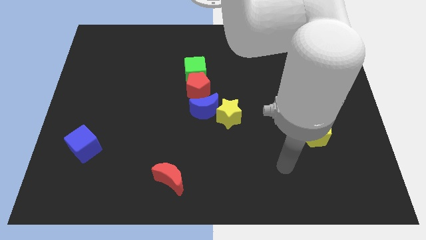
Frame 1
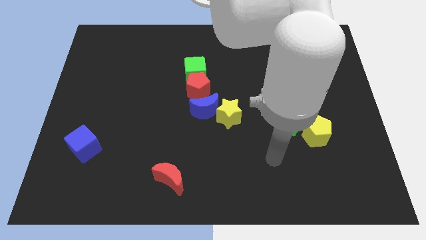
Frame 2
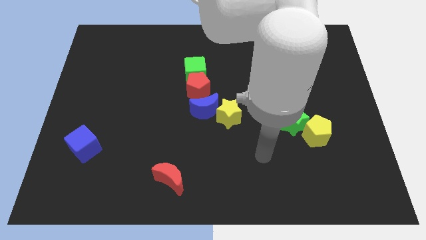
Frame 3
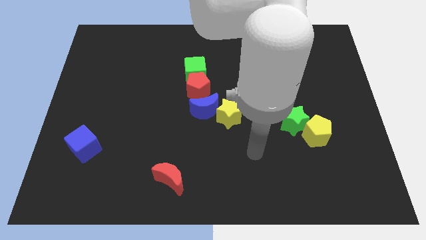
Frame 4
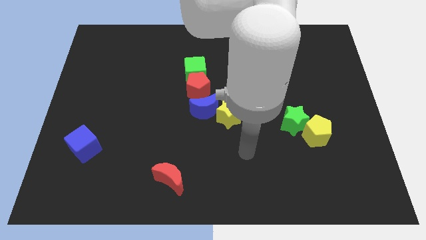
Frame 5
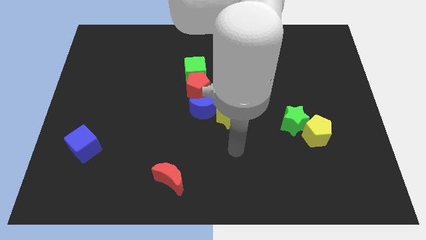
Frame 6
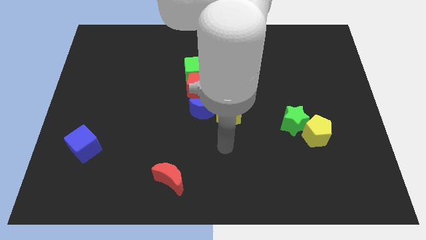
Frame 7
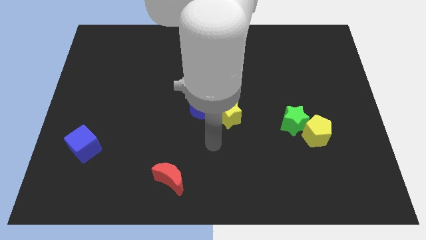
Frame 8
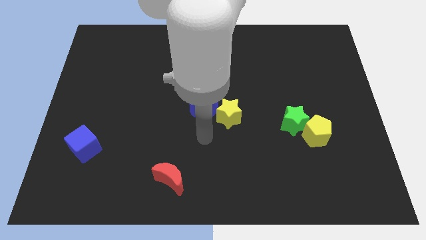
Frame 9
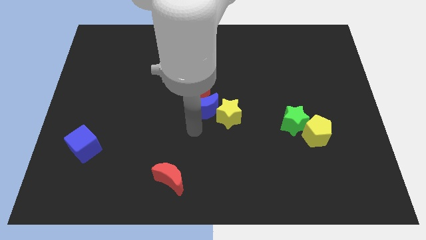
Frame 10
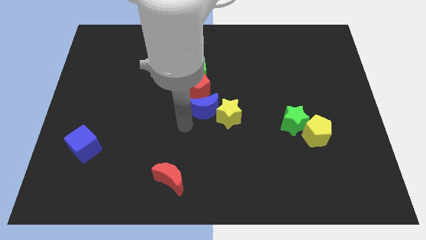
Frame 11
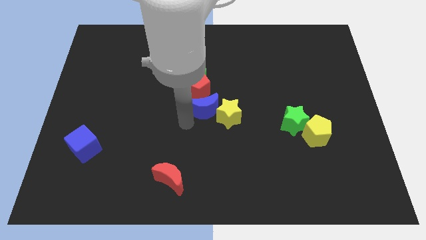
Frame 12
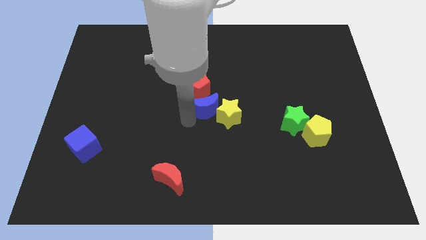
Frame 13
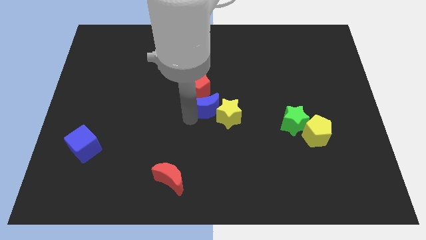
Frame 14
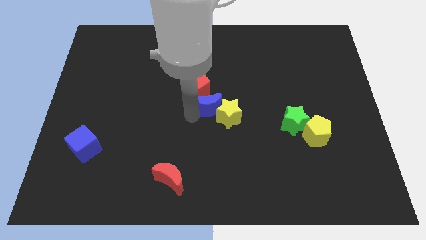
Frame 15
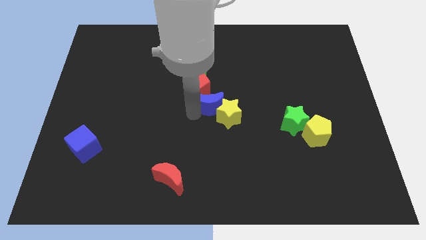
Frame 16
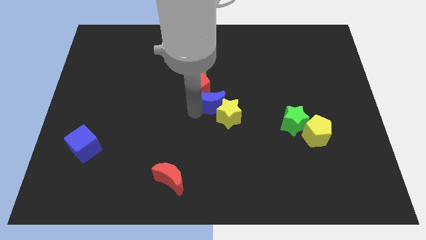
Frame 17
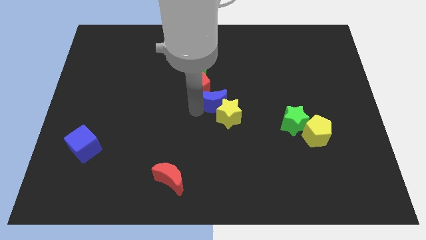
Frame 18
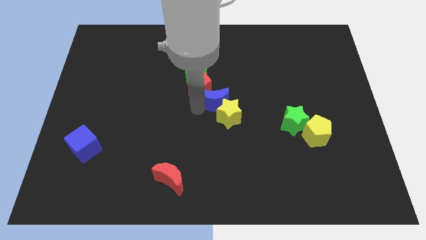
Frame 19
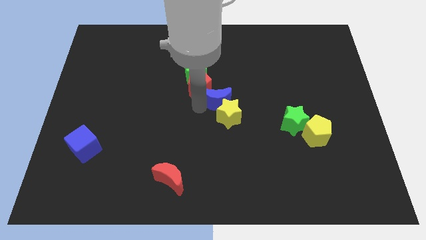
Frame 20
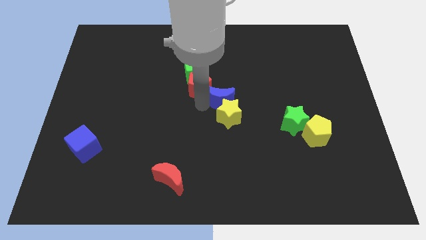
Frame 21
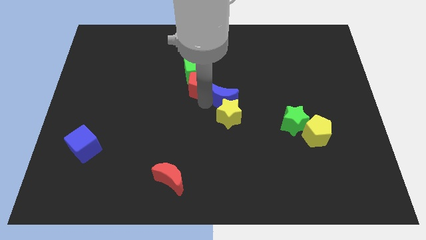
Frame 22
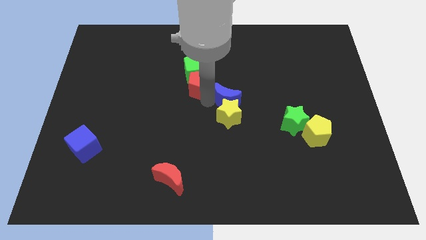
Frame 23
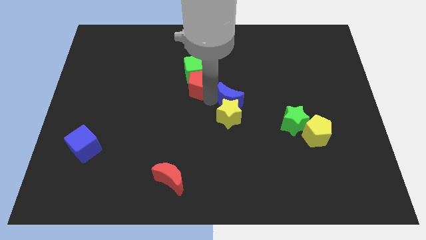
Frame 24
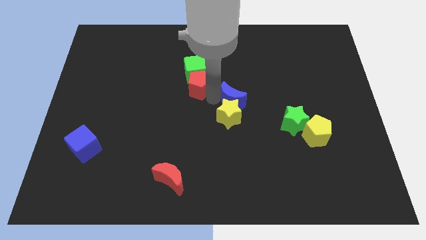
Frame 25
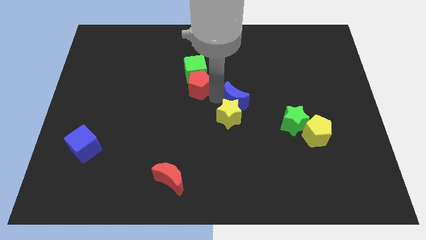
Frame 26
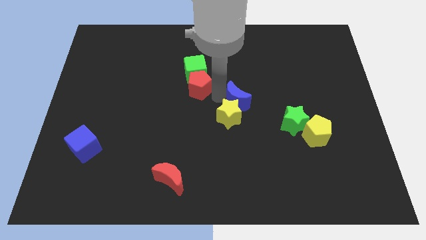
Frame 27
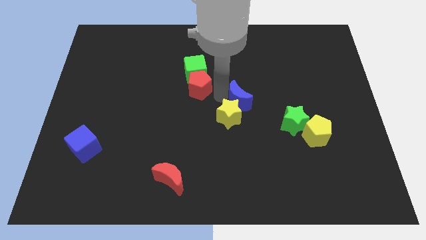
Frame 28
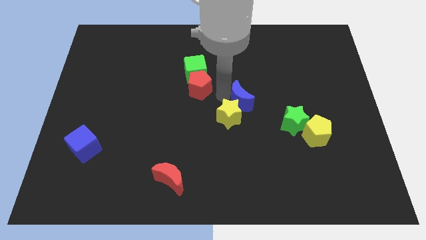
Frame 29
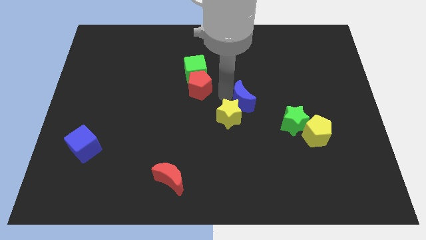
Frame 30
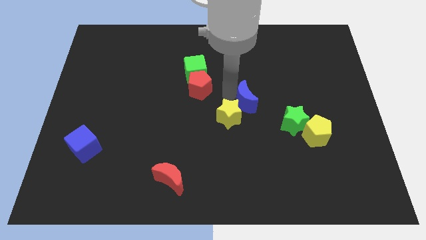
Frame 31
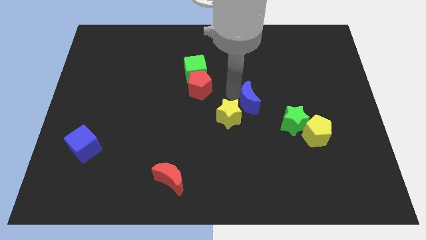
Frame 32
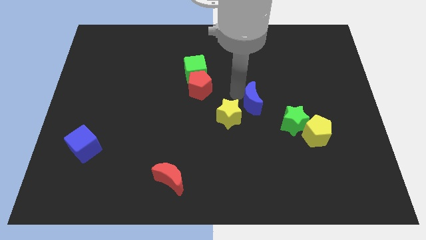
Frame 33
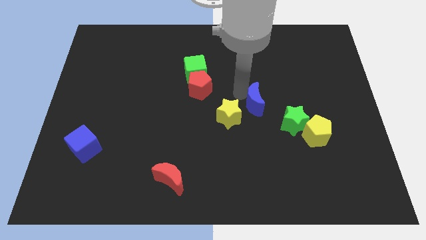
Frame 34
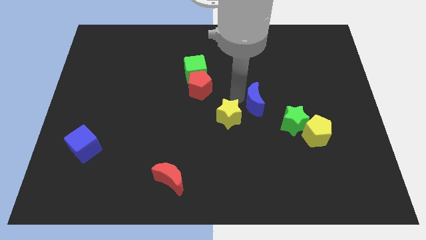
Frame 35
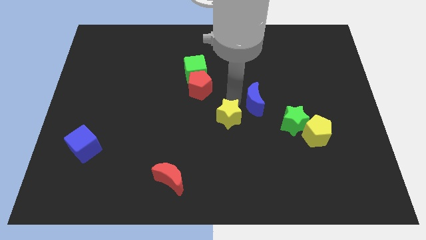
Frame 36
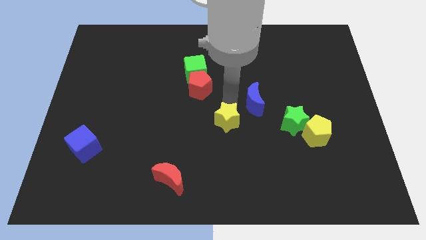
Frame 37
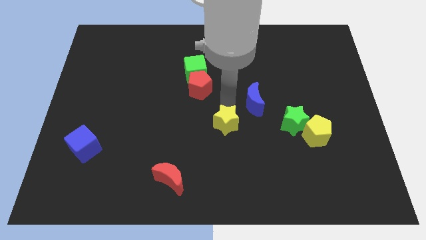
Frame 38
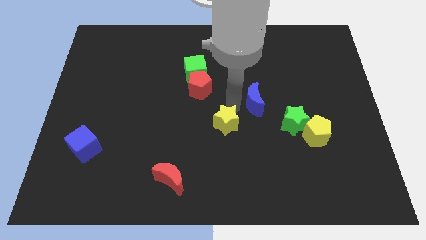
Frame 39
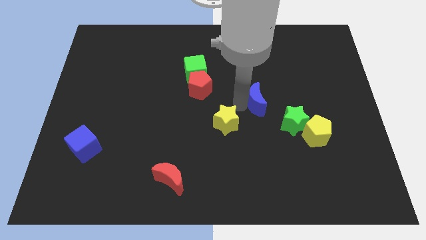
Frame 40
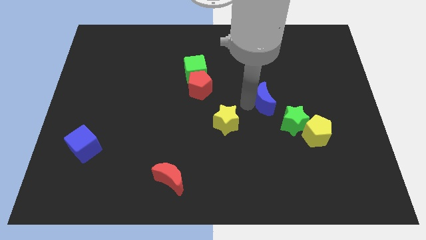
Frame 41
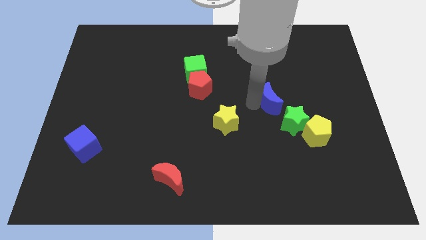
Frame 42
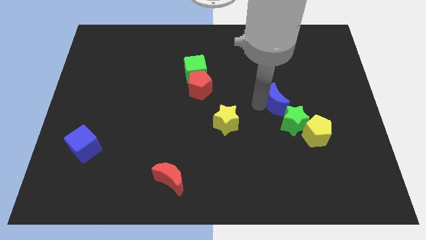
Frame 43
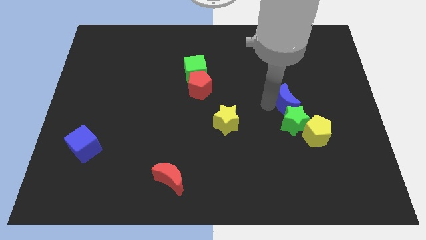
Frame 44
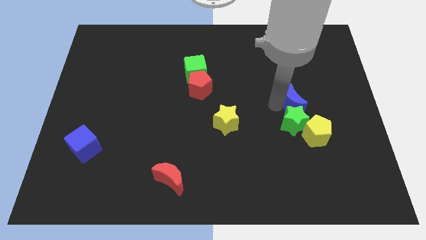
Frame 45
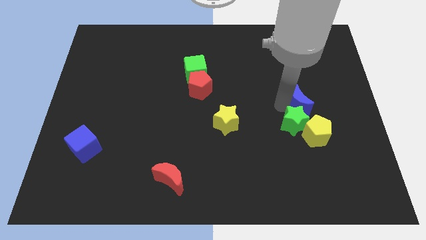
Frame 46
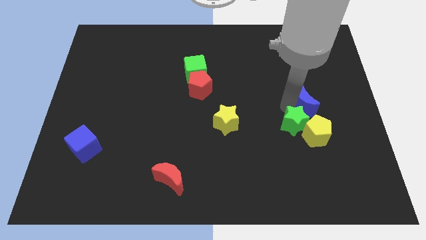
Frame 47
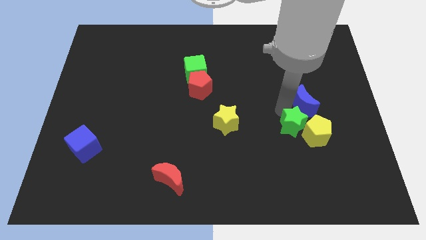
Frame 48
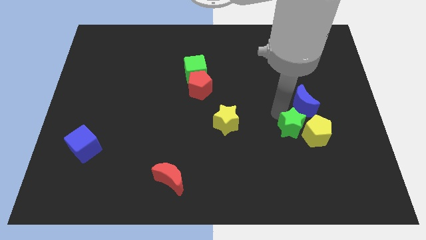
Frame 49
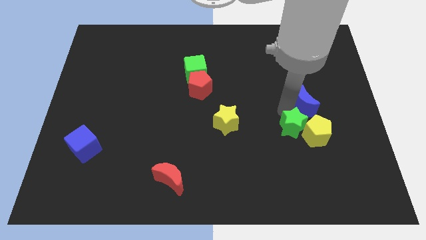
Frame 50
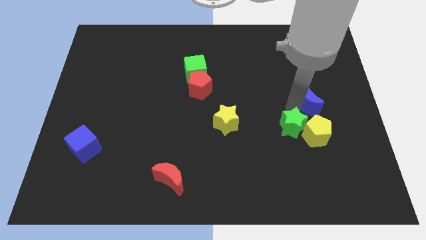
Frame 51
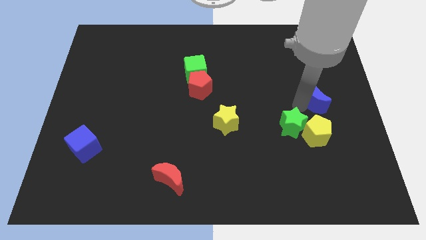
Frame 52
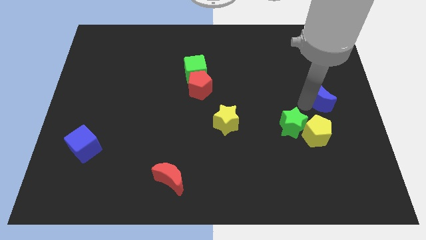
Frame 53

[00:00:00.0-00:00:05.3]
put the blue moon to the right side of the board

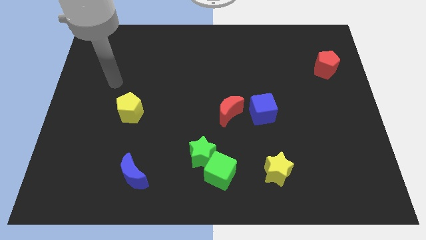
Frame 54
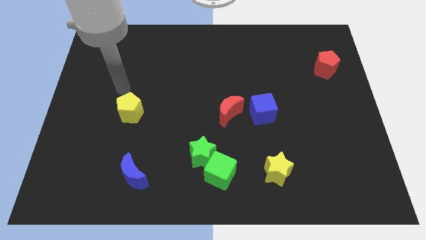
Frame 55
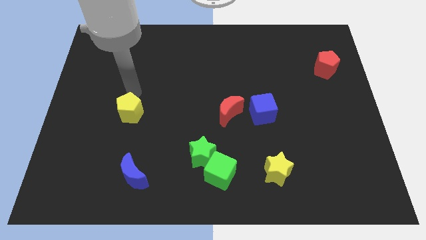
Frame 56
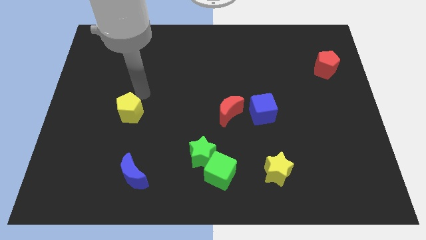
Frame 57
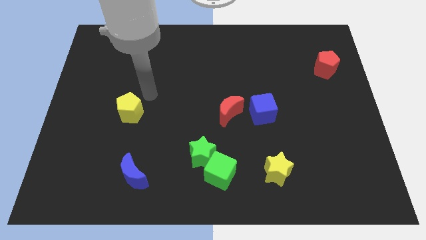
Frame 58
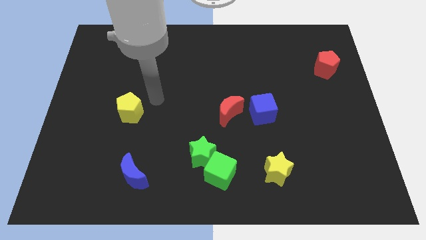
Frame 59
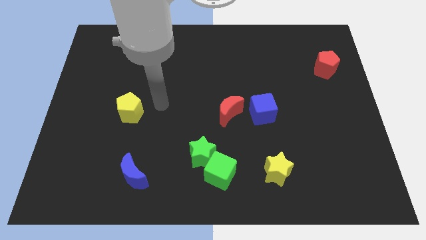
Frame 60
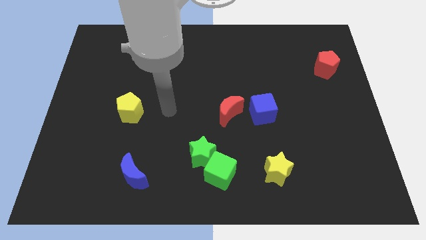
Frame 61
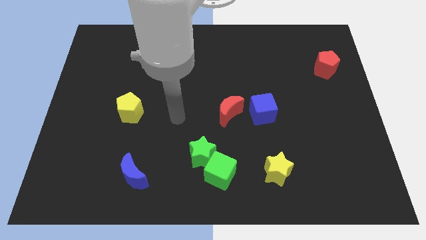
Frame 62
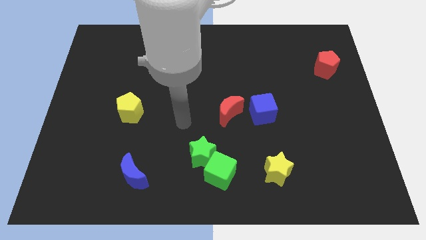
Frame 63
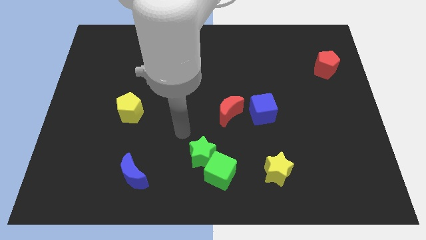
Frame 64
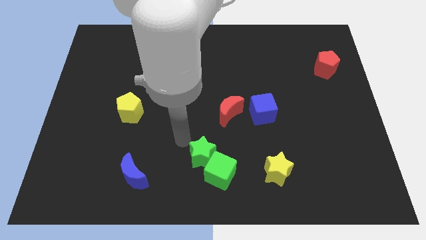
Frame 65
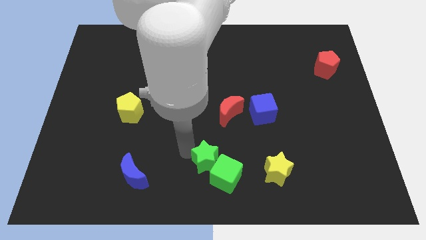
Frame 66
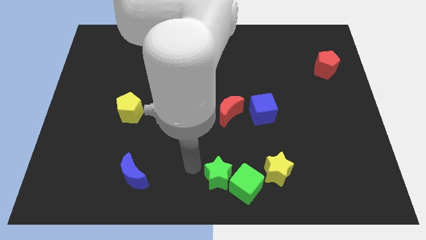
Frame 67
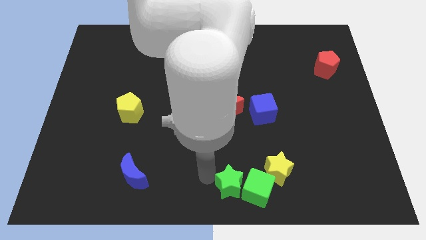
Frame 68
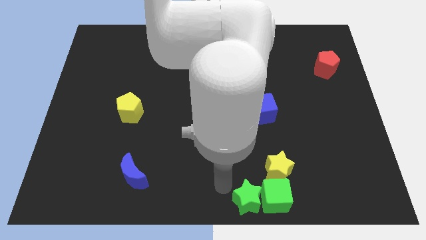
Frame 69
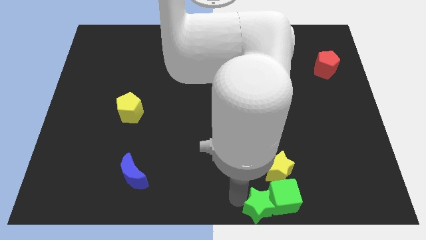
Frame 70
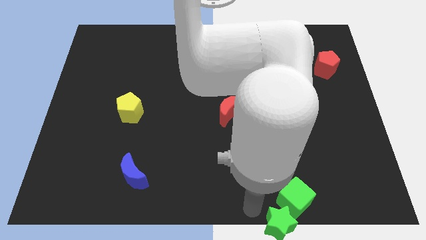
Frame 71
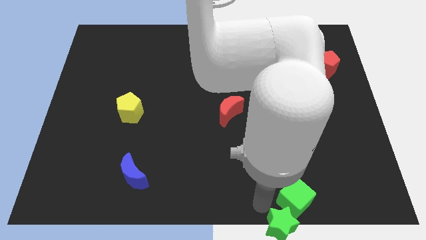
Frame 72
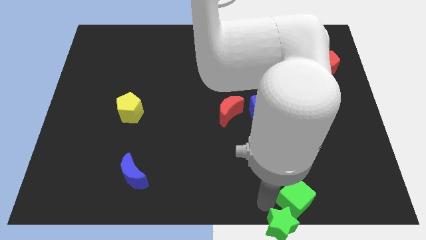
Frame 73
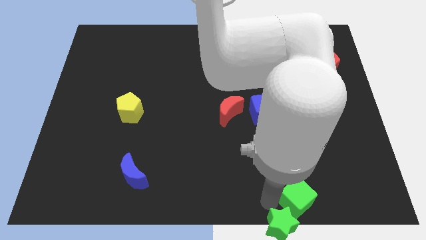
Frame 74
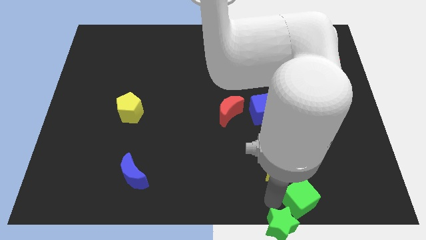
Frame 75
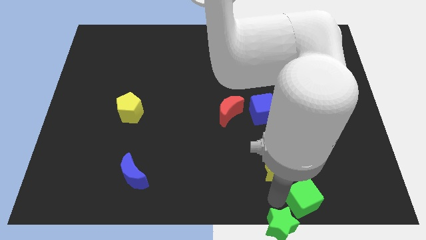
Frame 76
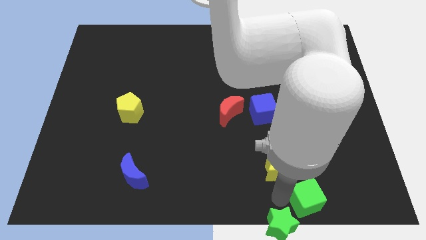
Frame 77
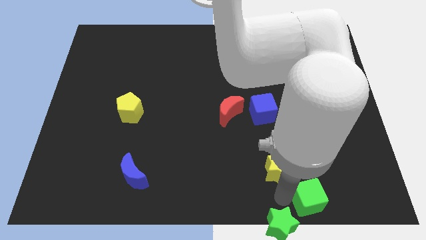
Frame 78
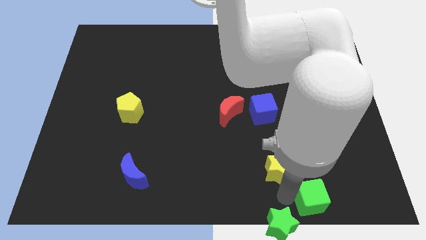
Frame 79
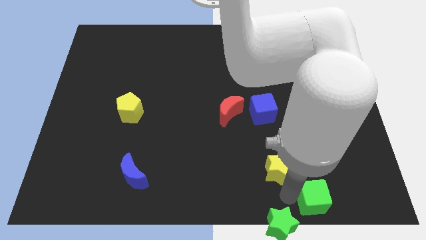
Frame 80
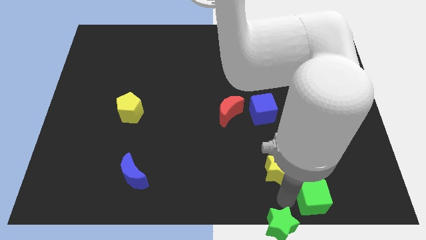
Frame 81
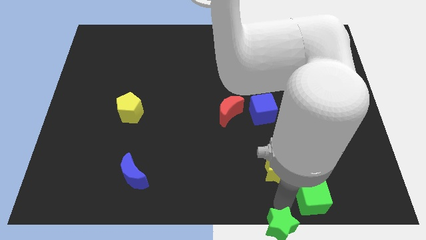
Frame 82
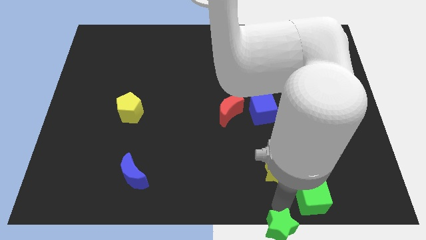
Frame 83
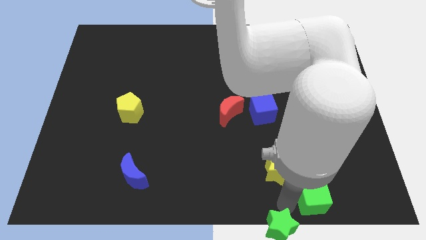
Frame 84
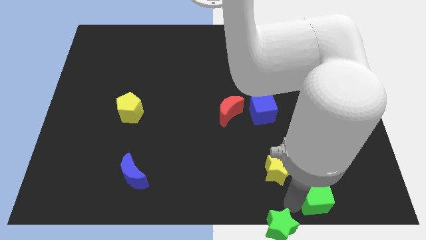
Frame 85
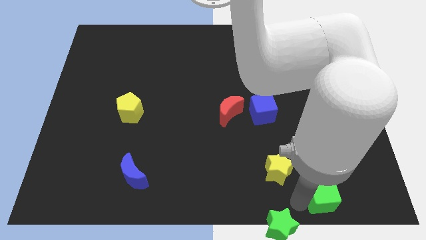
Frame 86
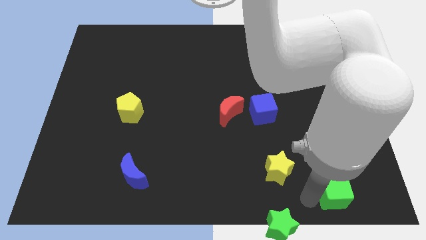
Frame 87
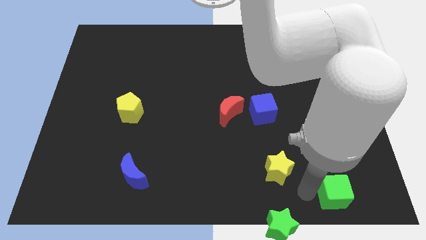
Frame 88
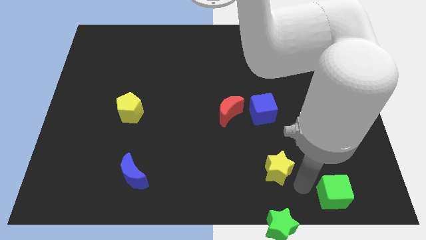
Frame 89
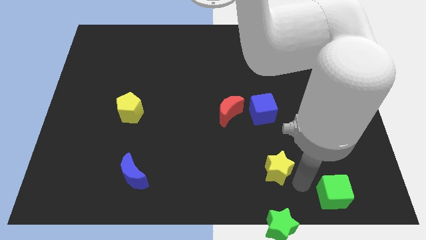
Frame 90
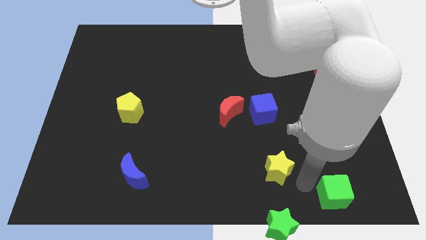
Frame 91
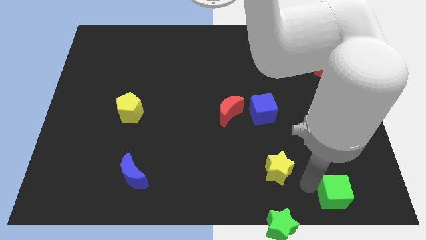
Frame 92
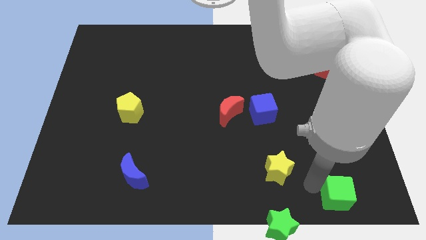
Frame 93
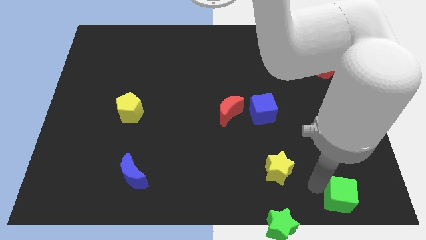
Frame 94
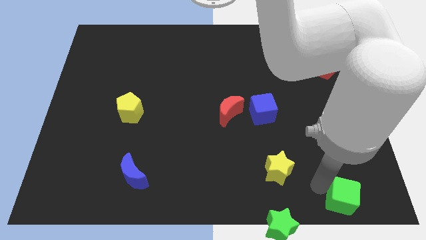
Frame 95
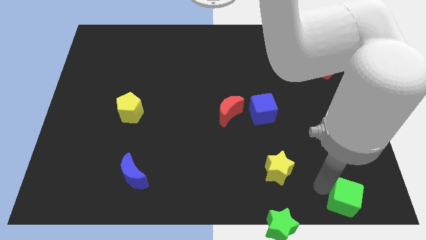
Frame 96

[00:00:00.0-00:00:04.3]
put the green cube to the bottom right of the board
